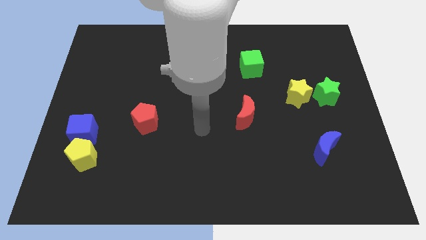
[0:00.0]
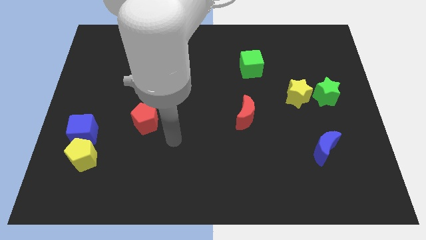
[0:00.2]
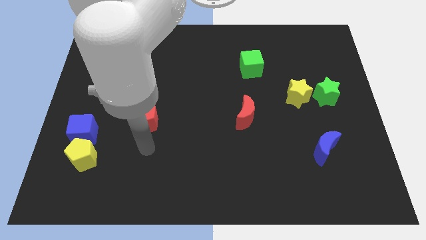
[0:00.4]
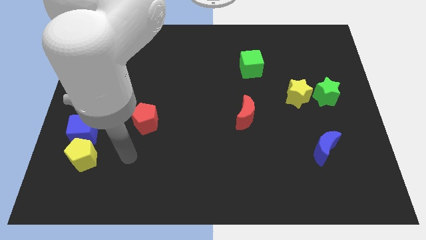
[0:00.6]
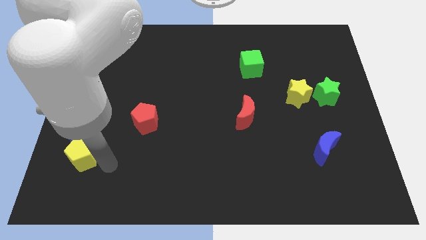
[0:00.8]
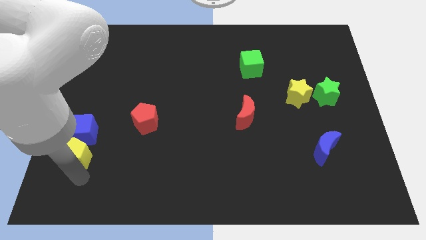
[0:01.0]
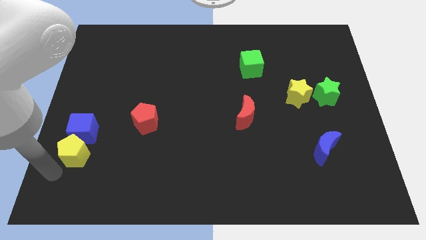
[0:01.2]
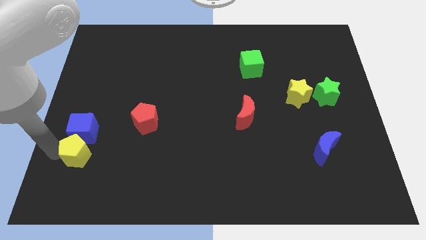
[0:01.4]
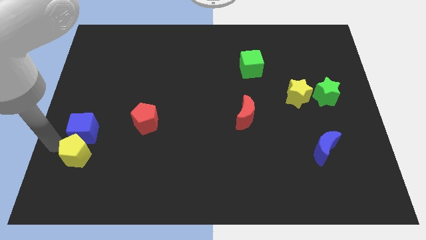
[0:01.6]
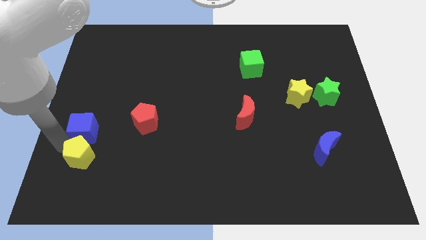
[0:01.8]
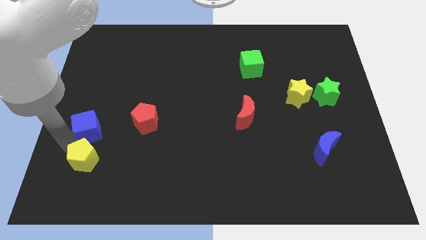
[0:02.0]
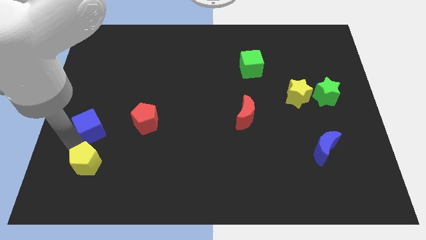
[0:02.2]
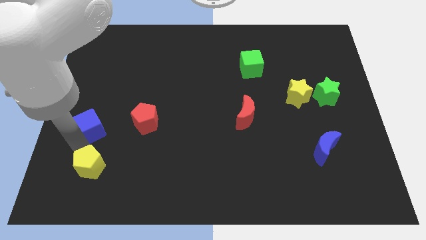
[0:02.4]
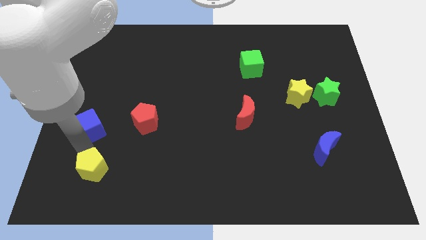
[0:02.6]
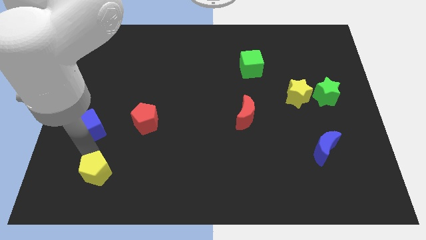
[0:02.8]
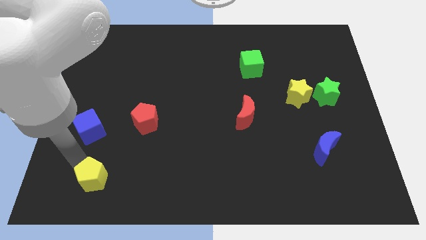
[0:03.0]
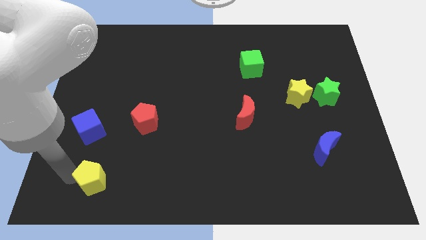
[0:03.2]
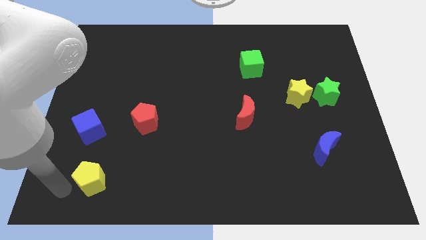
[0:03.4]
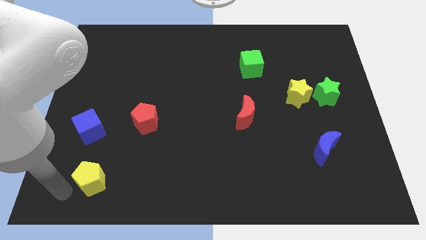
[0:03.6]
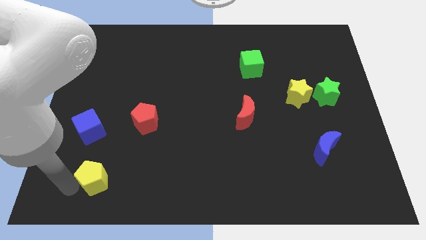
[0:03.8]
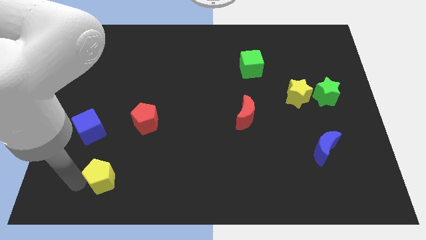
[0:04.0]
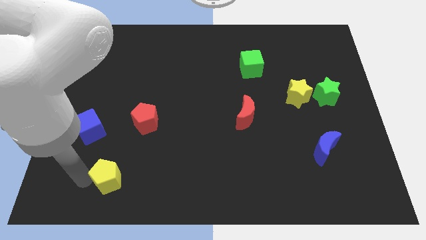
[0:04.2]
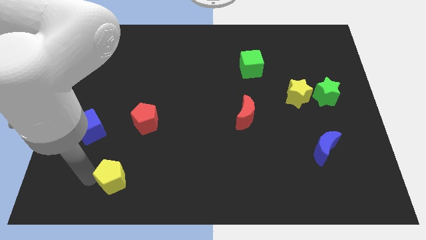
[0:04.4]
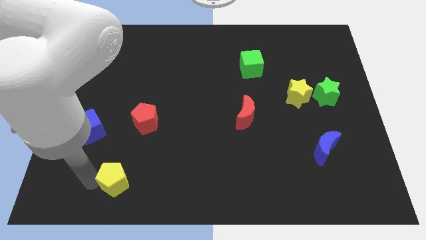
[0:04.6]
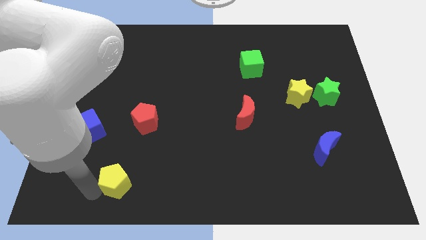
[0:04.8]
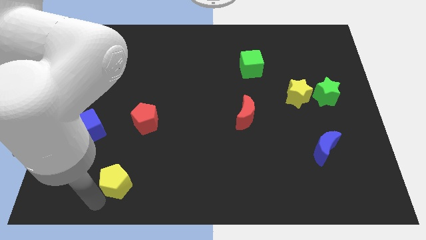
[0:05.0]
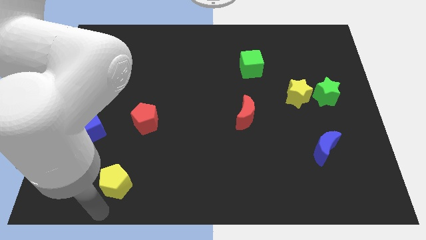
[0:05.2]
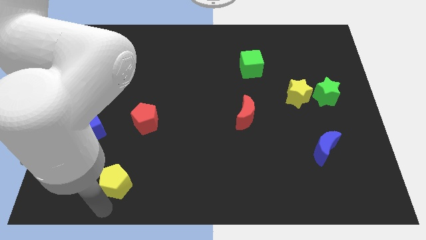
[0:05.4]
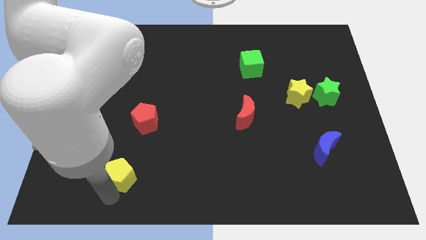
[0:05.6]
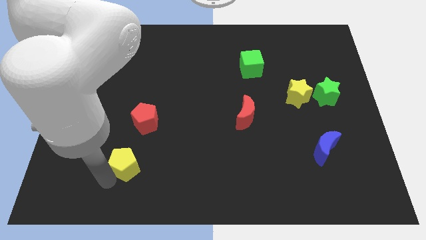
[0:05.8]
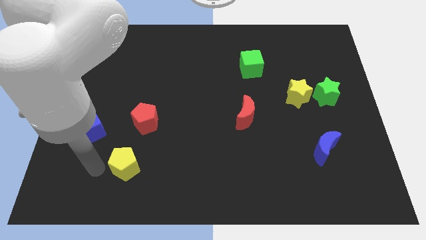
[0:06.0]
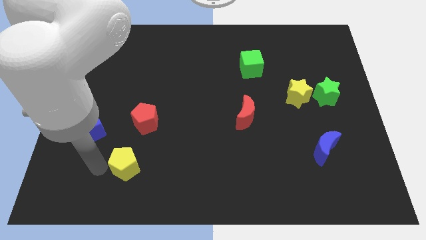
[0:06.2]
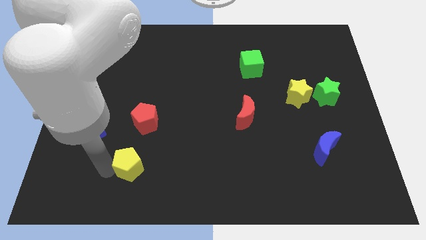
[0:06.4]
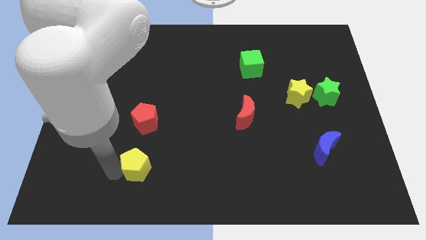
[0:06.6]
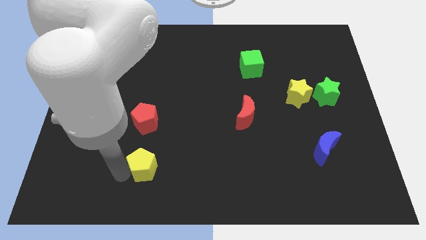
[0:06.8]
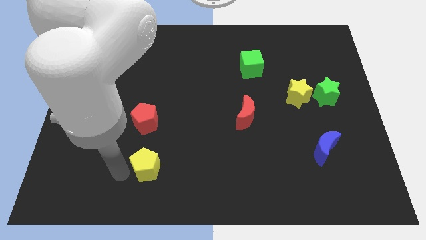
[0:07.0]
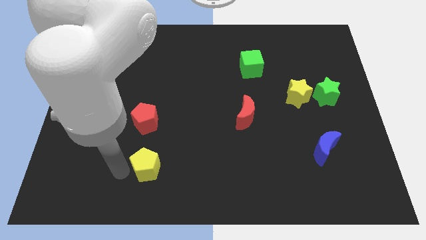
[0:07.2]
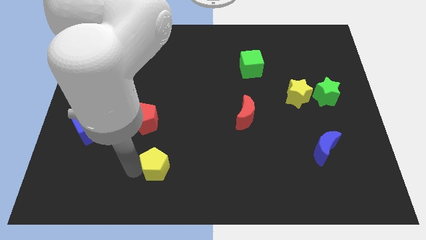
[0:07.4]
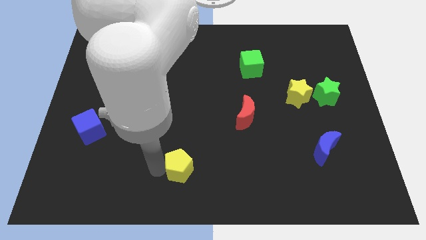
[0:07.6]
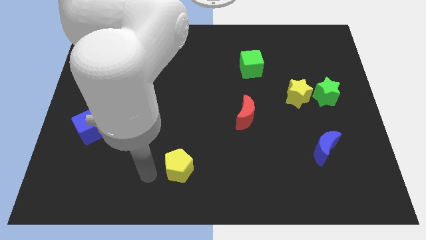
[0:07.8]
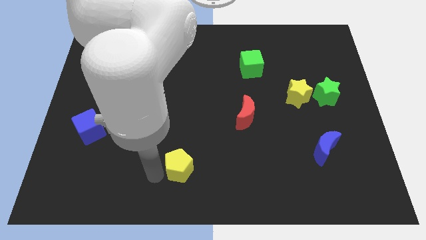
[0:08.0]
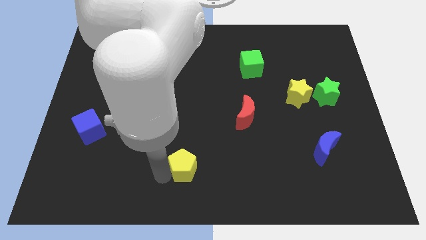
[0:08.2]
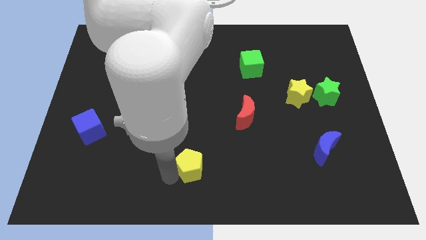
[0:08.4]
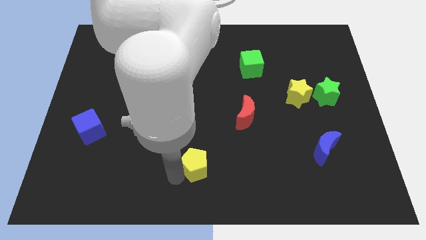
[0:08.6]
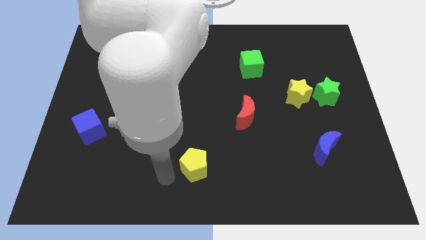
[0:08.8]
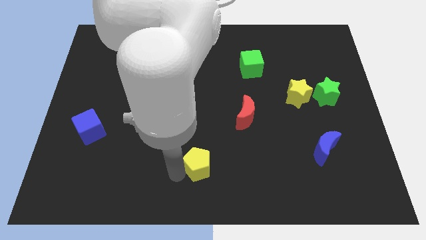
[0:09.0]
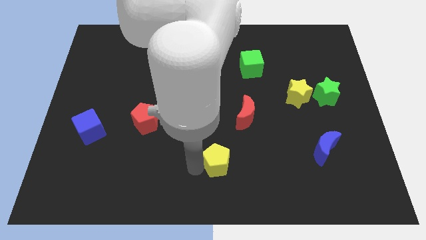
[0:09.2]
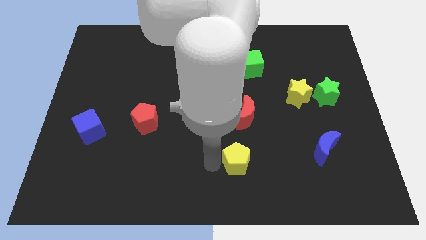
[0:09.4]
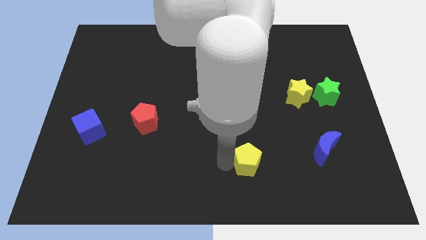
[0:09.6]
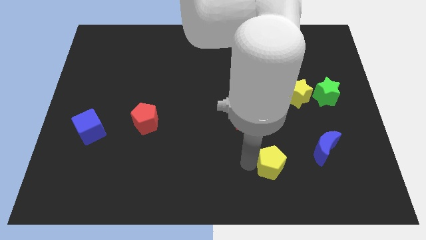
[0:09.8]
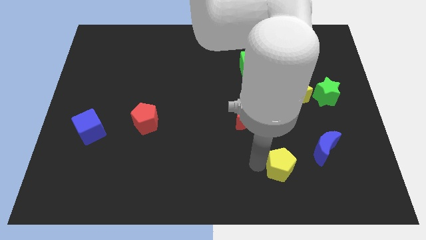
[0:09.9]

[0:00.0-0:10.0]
move the yellow pentagon to the bottom left of the blue moon

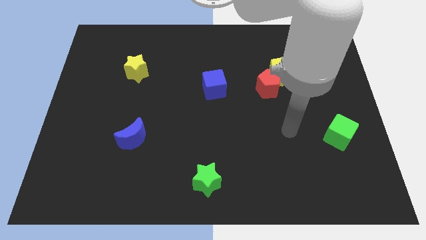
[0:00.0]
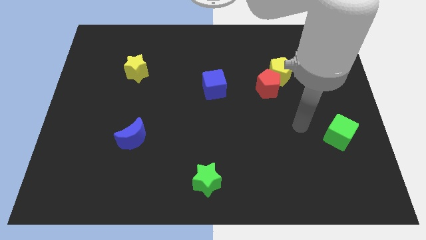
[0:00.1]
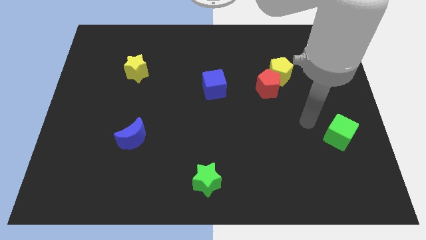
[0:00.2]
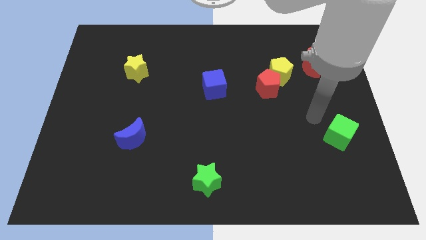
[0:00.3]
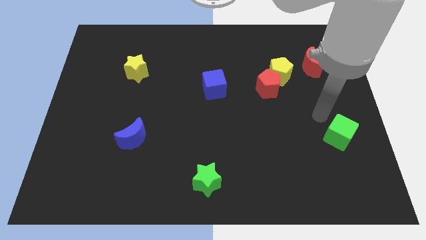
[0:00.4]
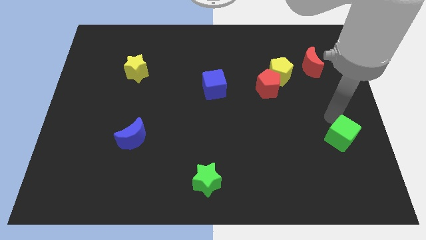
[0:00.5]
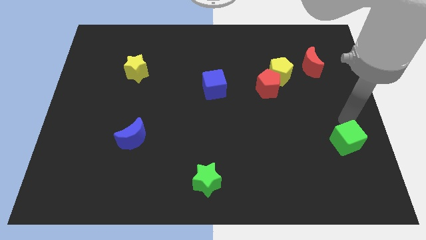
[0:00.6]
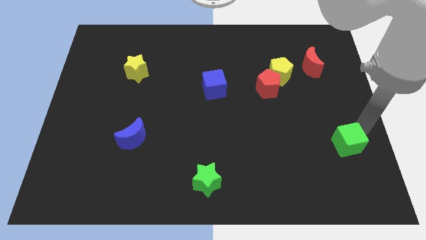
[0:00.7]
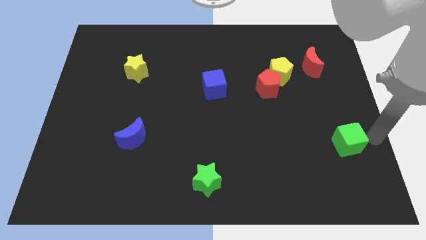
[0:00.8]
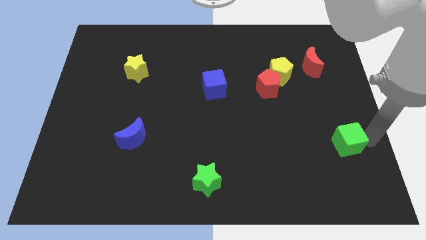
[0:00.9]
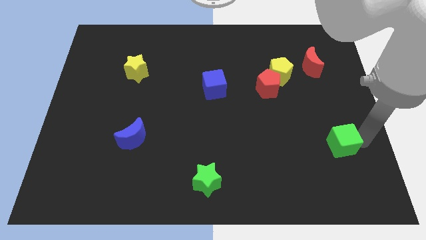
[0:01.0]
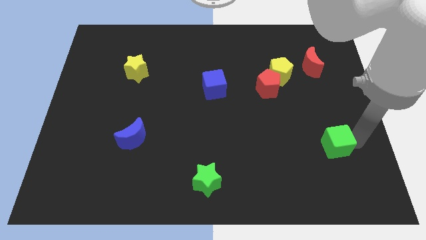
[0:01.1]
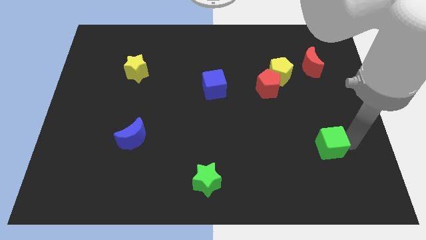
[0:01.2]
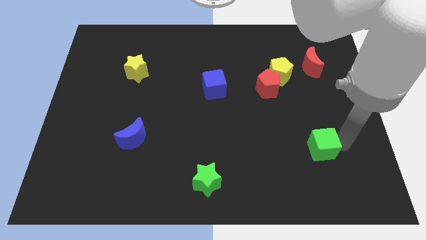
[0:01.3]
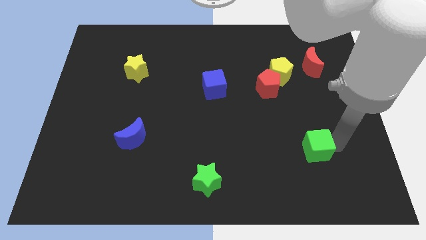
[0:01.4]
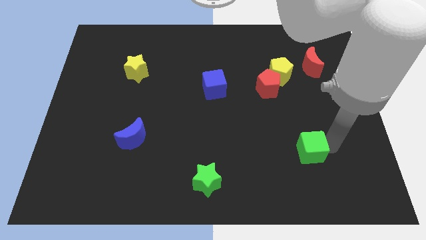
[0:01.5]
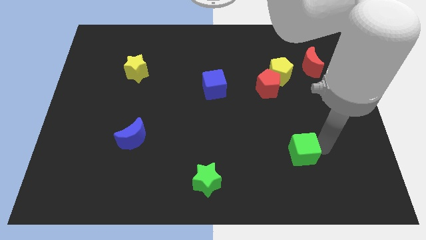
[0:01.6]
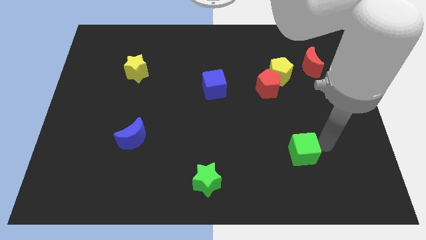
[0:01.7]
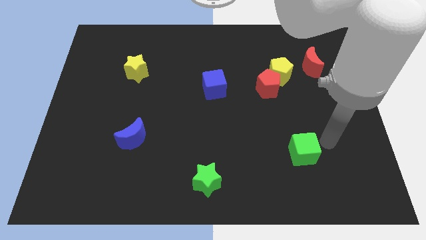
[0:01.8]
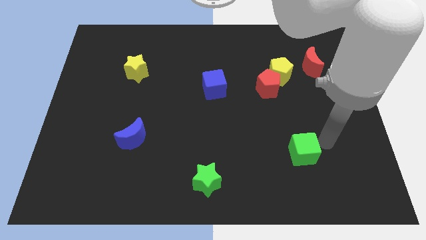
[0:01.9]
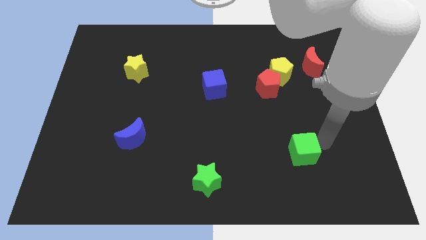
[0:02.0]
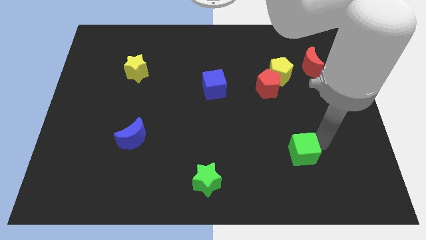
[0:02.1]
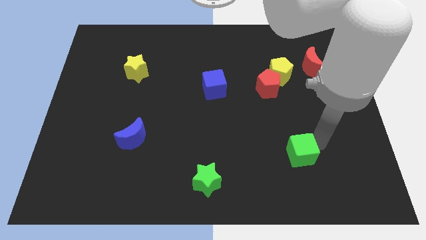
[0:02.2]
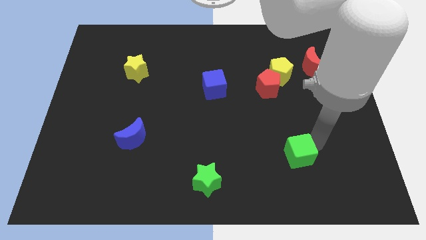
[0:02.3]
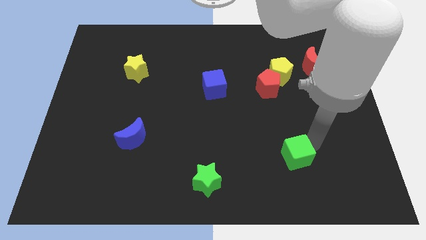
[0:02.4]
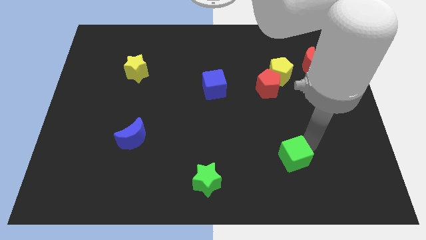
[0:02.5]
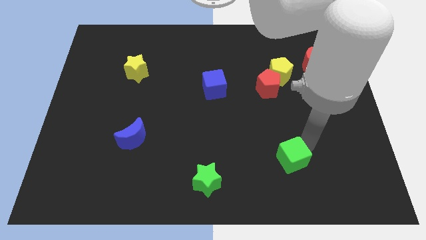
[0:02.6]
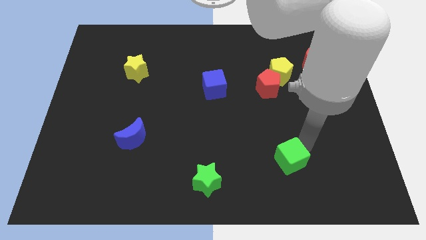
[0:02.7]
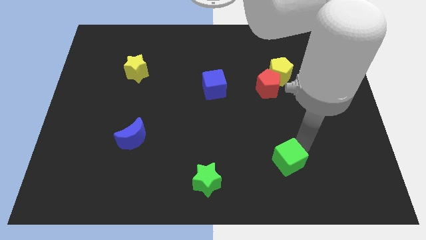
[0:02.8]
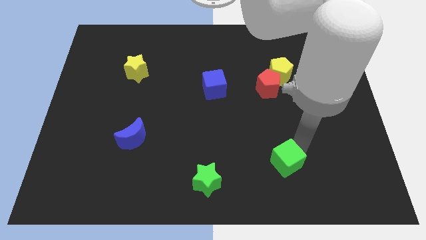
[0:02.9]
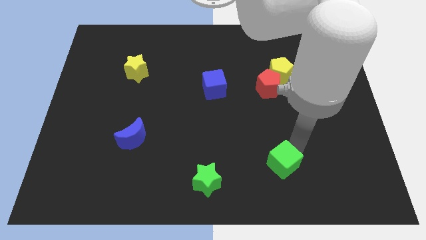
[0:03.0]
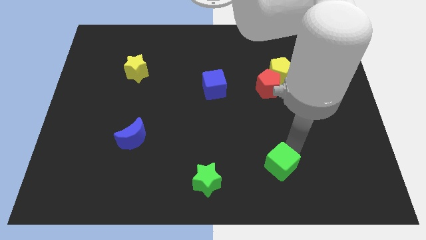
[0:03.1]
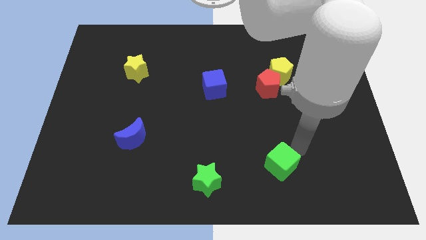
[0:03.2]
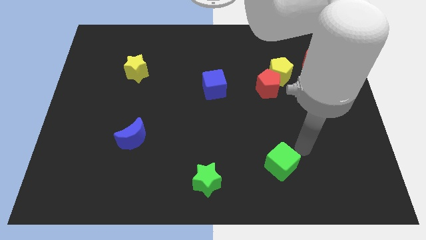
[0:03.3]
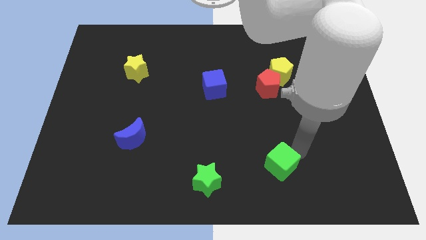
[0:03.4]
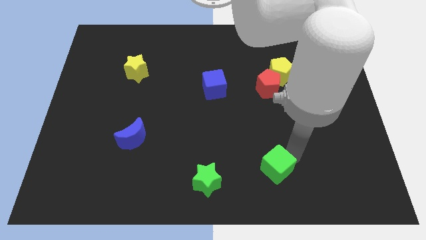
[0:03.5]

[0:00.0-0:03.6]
move the green cube to the right of the green star
